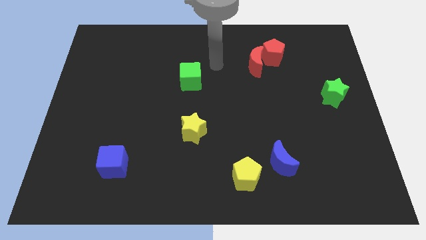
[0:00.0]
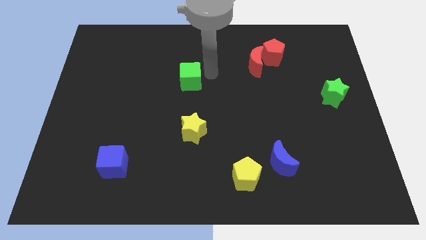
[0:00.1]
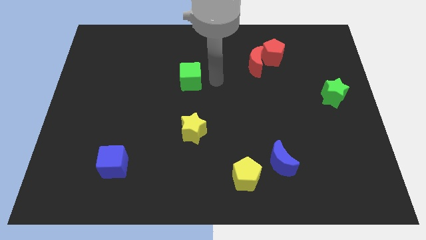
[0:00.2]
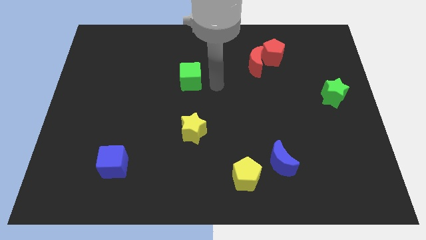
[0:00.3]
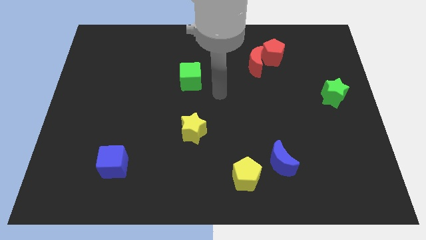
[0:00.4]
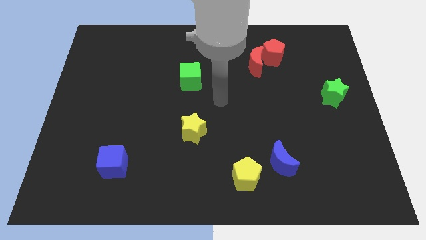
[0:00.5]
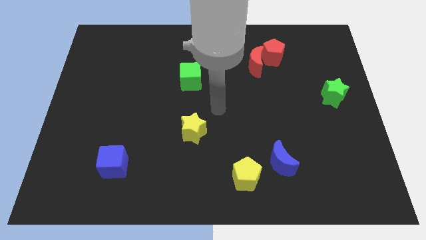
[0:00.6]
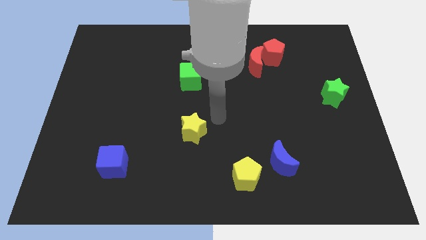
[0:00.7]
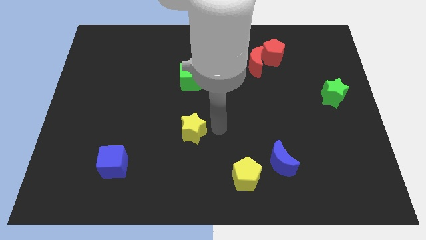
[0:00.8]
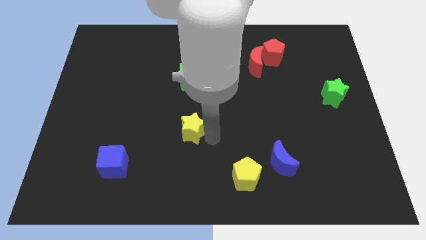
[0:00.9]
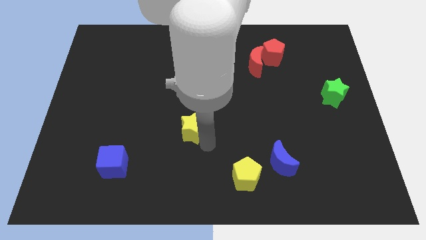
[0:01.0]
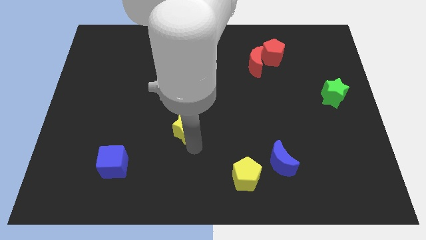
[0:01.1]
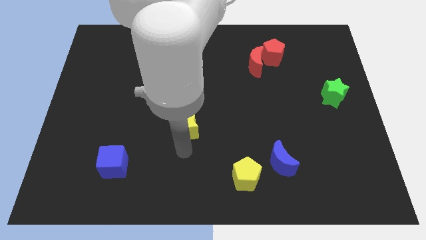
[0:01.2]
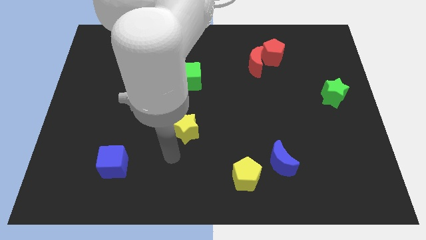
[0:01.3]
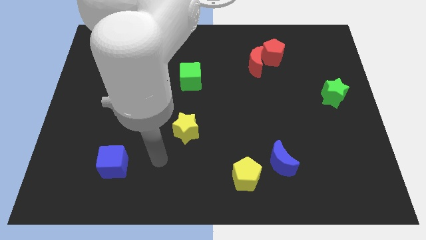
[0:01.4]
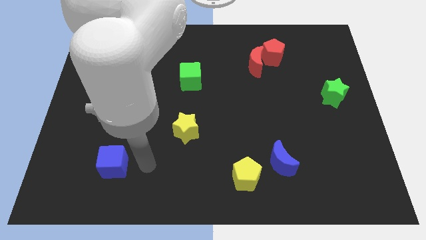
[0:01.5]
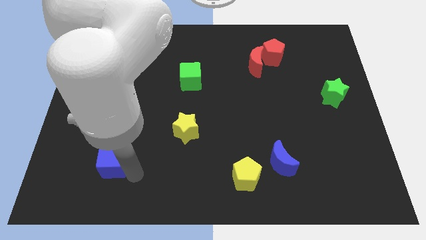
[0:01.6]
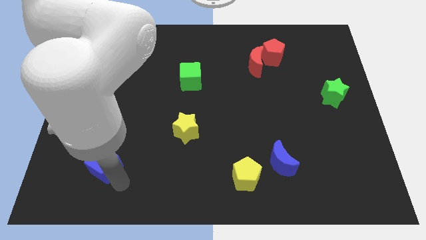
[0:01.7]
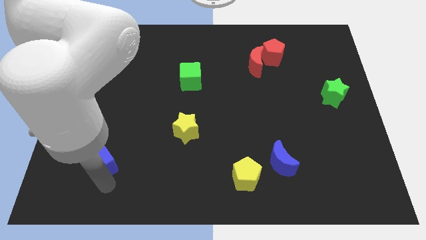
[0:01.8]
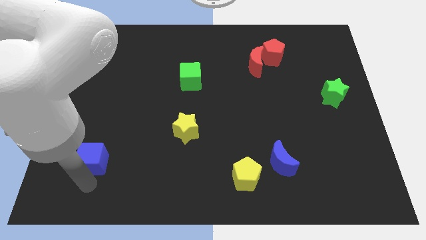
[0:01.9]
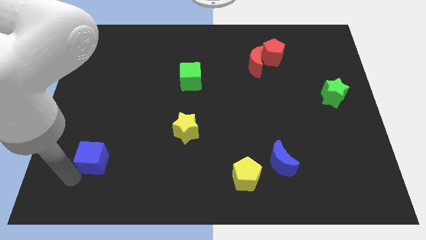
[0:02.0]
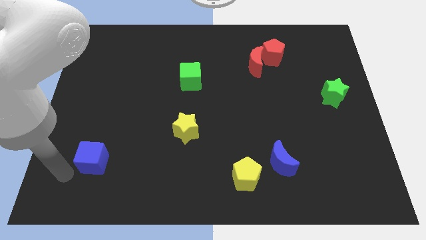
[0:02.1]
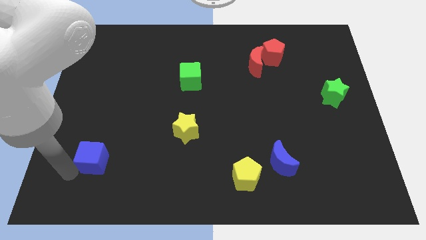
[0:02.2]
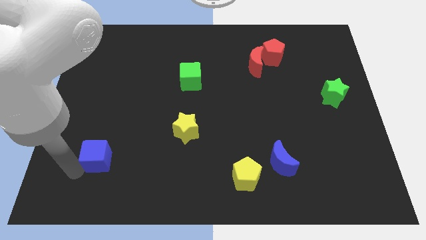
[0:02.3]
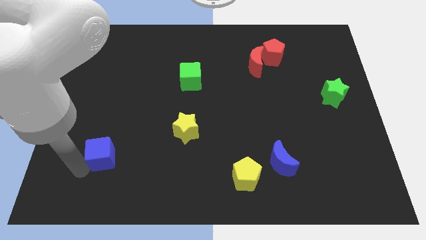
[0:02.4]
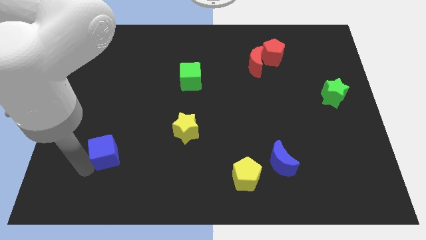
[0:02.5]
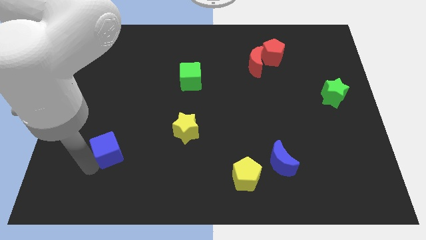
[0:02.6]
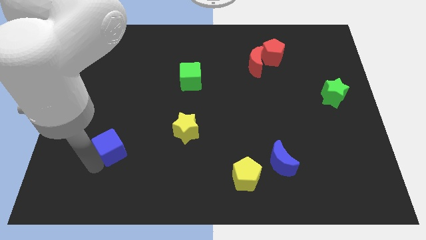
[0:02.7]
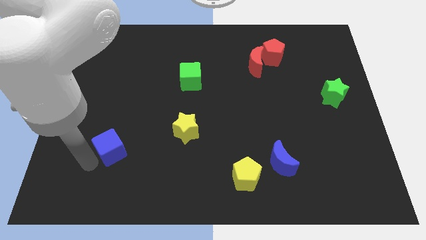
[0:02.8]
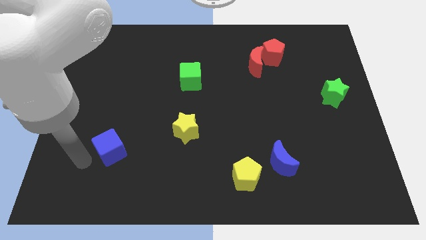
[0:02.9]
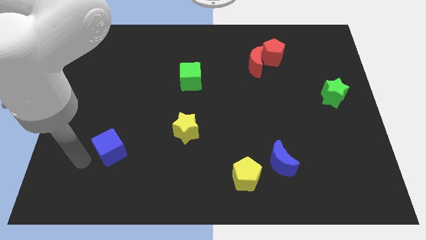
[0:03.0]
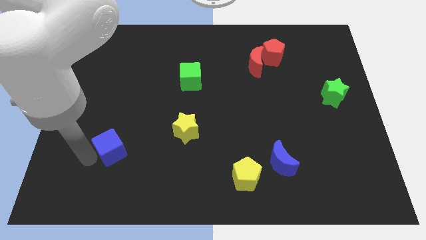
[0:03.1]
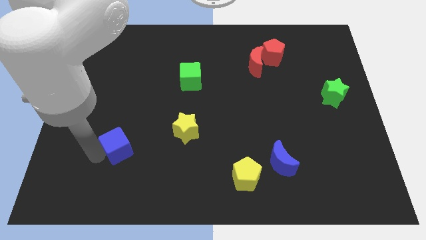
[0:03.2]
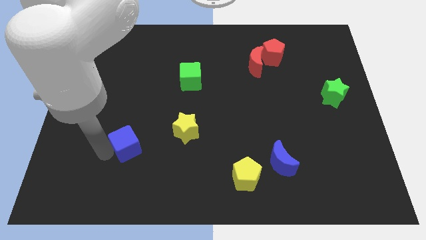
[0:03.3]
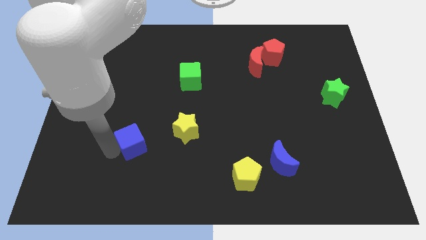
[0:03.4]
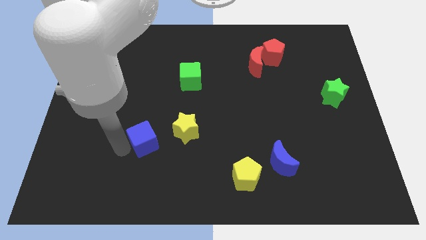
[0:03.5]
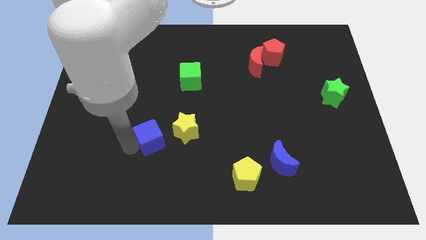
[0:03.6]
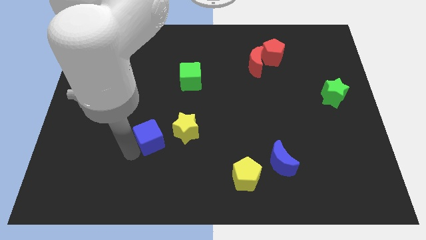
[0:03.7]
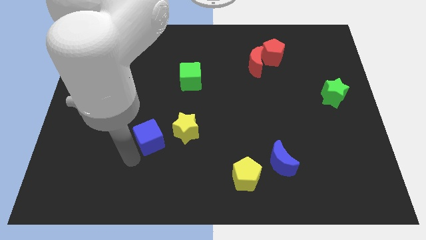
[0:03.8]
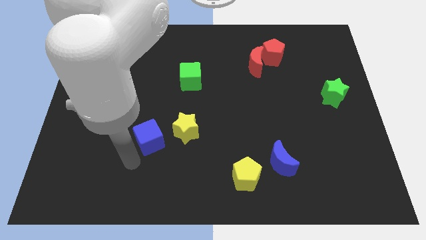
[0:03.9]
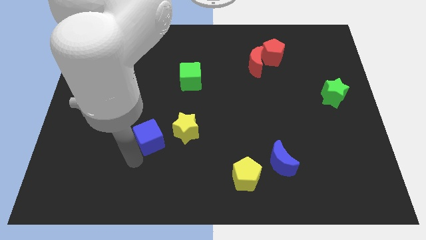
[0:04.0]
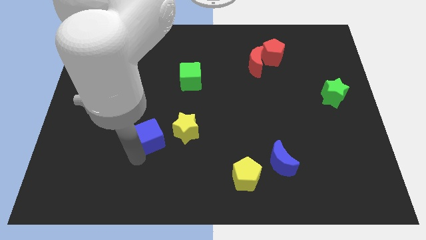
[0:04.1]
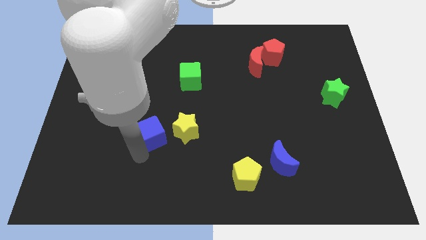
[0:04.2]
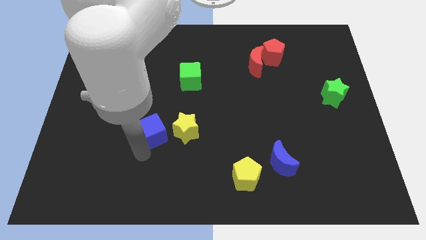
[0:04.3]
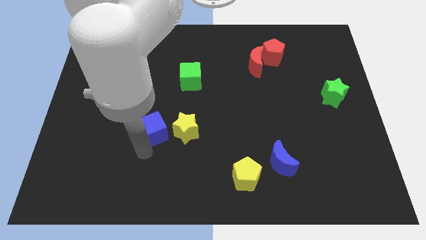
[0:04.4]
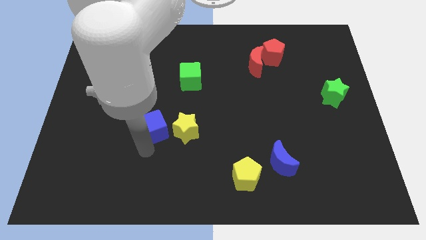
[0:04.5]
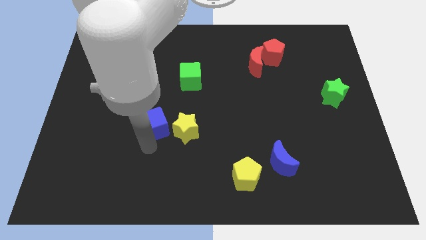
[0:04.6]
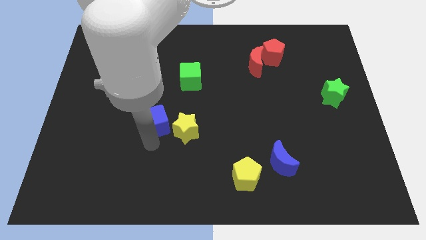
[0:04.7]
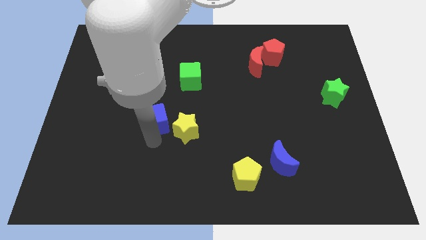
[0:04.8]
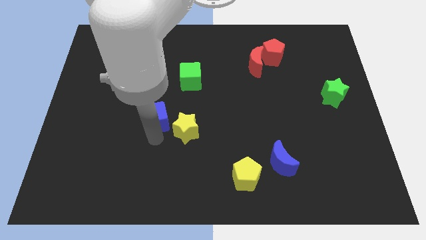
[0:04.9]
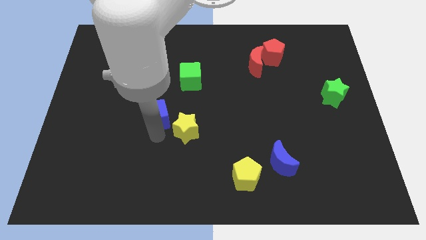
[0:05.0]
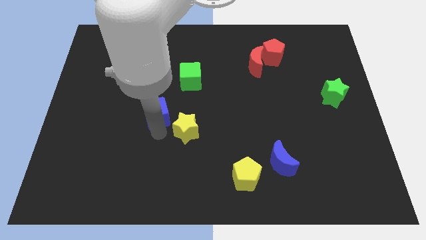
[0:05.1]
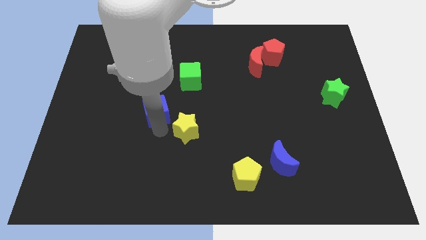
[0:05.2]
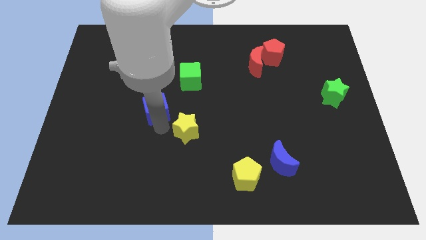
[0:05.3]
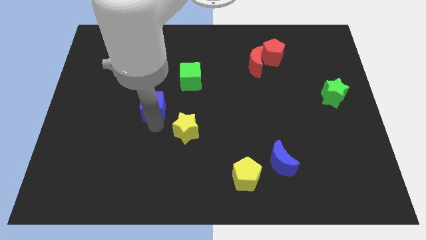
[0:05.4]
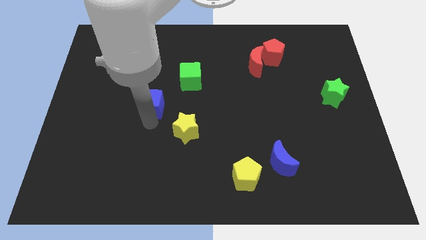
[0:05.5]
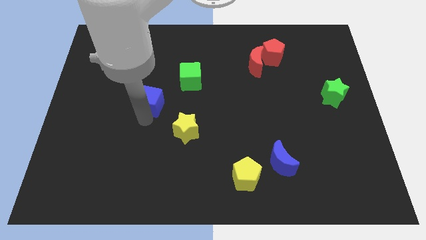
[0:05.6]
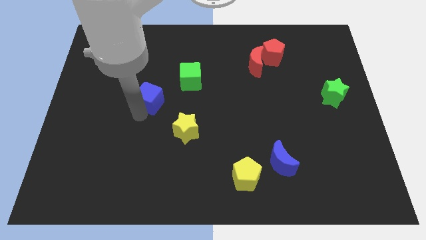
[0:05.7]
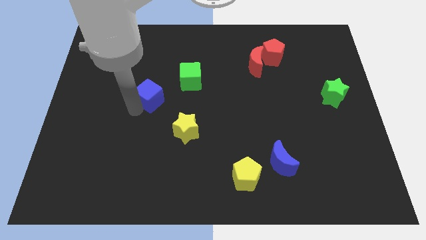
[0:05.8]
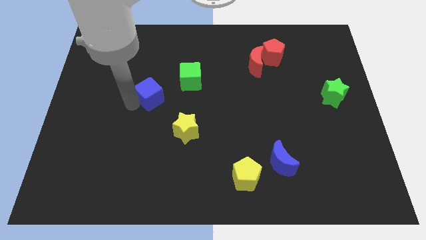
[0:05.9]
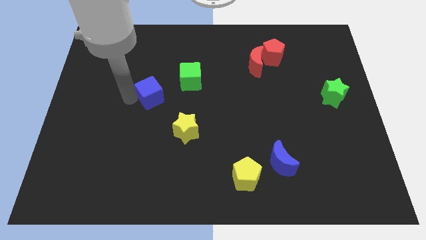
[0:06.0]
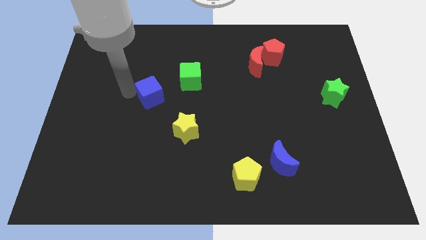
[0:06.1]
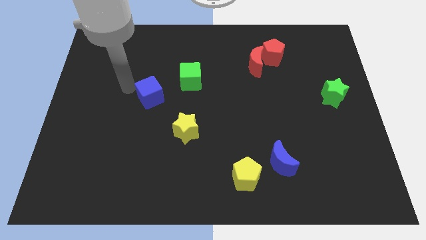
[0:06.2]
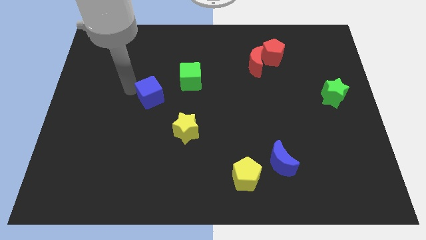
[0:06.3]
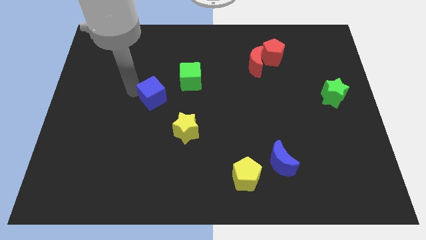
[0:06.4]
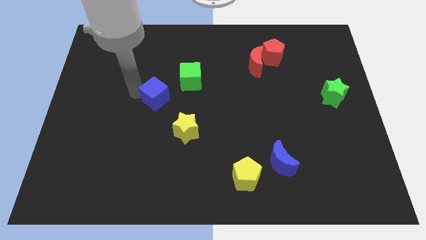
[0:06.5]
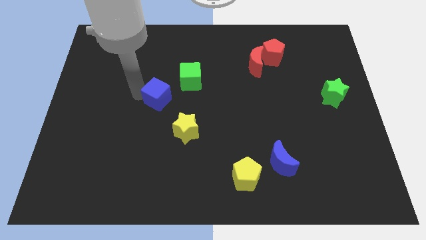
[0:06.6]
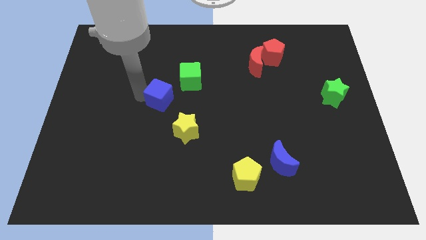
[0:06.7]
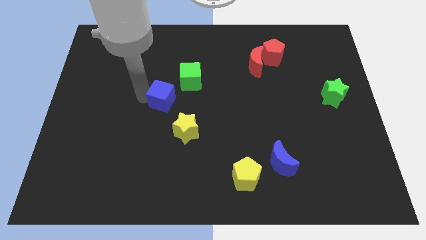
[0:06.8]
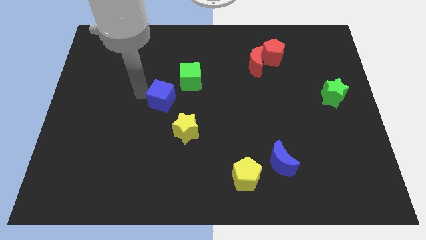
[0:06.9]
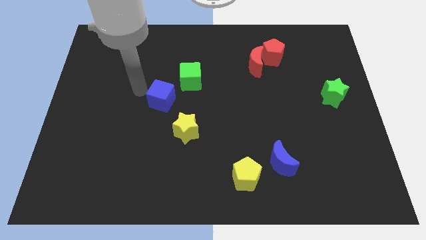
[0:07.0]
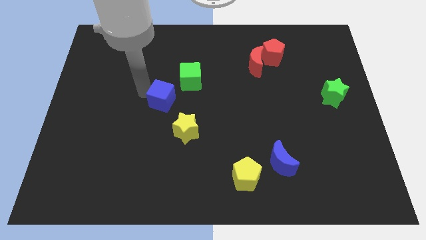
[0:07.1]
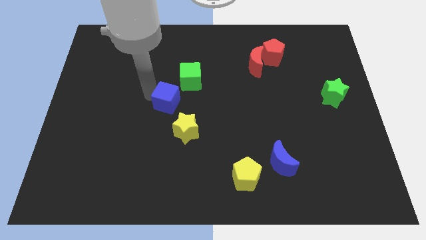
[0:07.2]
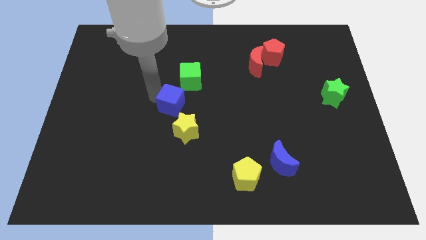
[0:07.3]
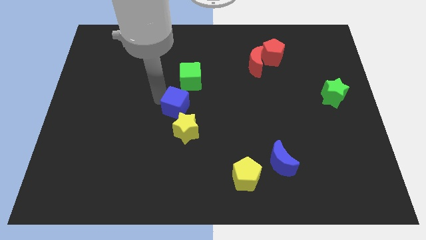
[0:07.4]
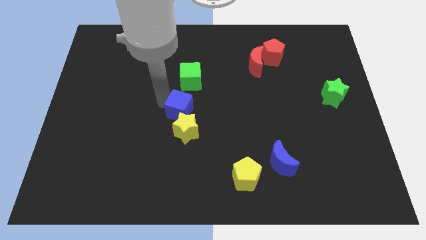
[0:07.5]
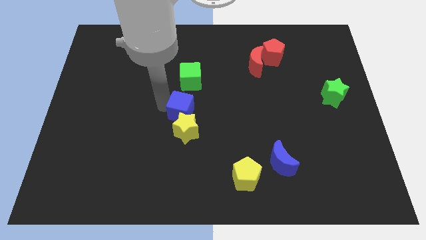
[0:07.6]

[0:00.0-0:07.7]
move the blue cube upwards and then to the right
